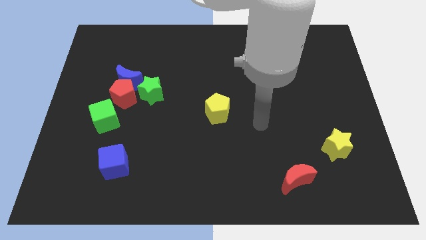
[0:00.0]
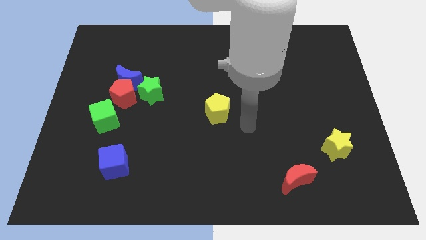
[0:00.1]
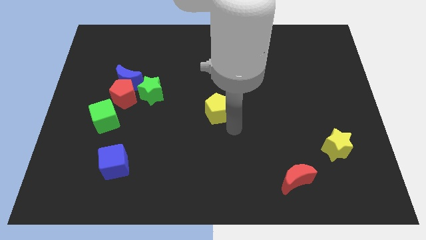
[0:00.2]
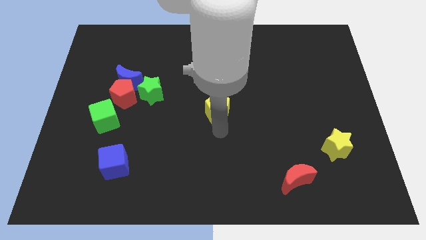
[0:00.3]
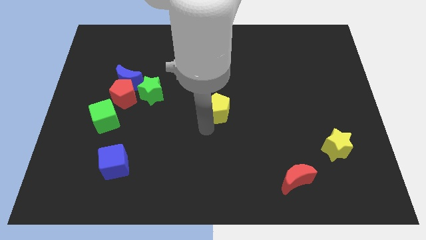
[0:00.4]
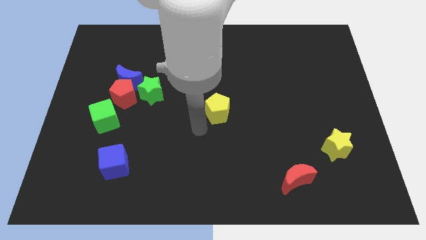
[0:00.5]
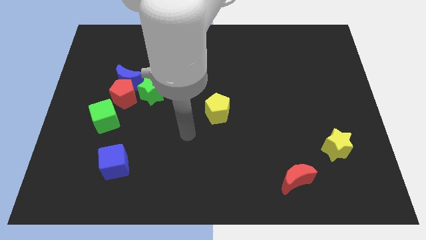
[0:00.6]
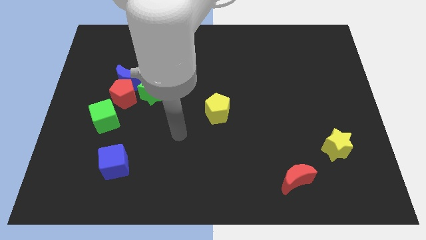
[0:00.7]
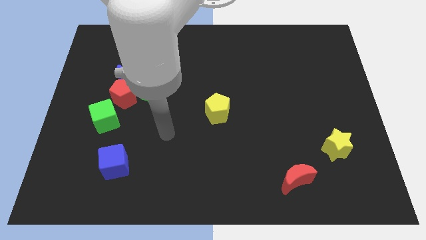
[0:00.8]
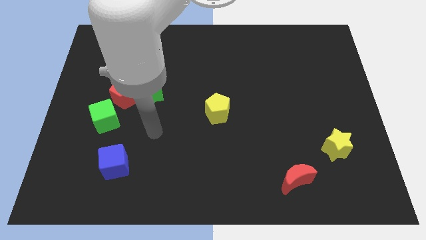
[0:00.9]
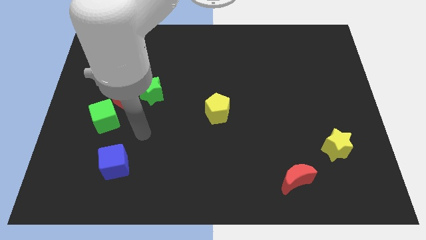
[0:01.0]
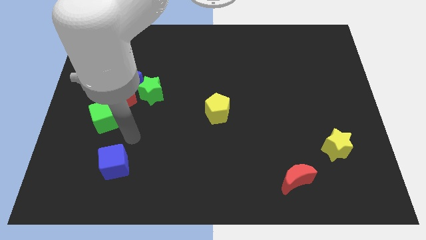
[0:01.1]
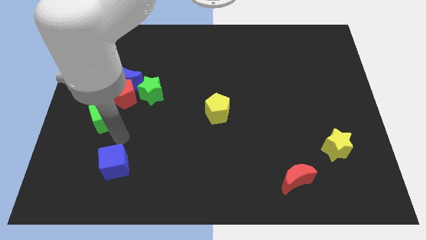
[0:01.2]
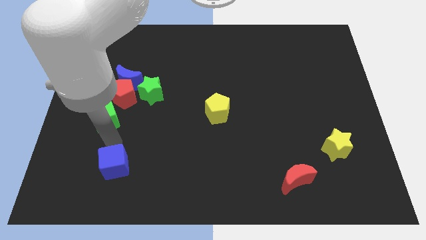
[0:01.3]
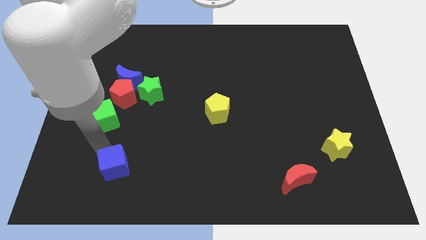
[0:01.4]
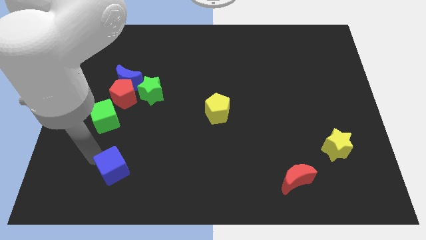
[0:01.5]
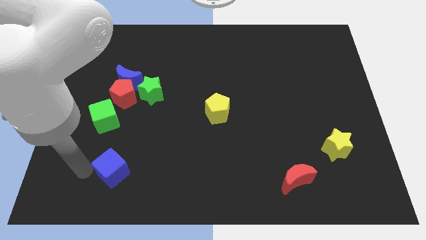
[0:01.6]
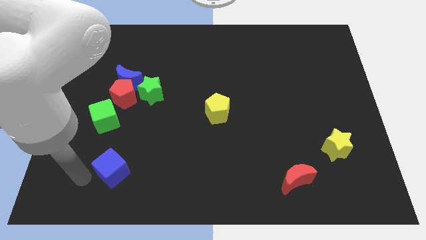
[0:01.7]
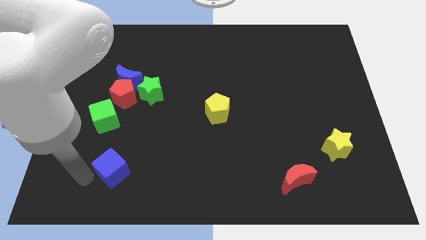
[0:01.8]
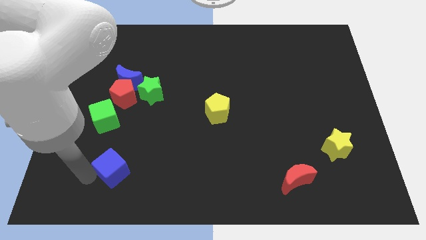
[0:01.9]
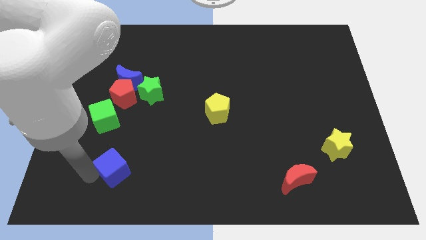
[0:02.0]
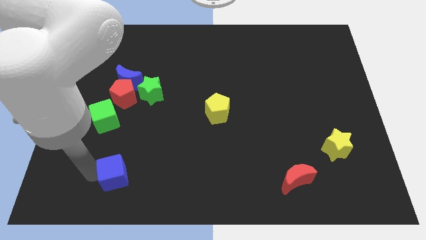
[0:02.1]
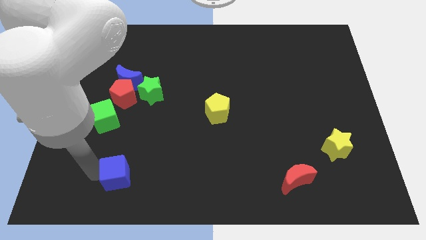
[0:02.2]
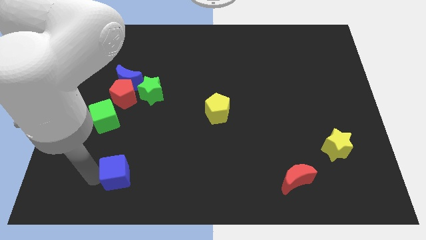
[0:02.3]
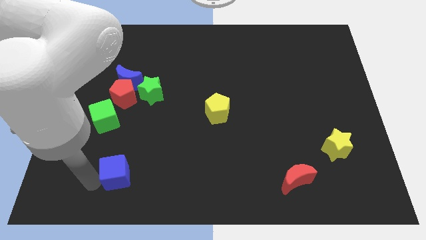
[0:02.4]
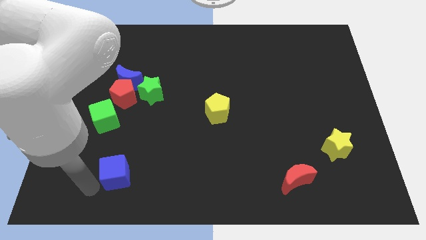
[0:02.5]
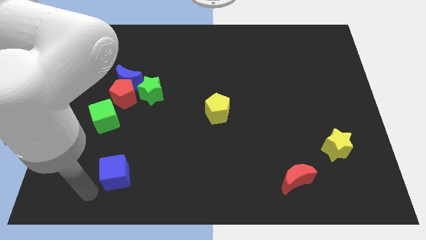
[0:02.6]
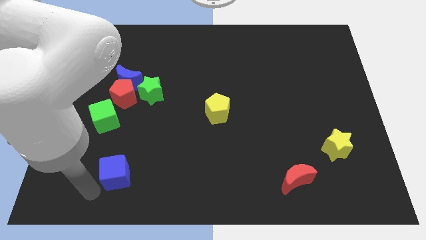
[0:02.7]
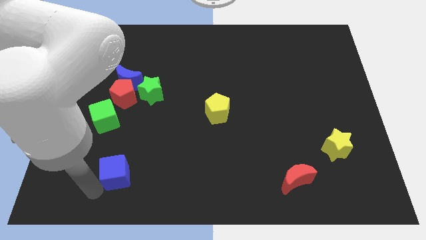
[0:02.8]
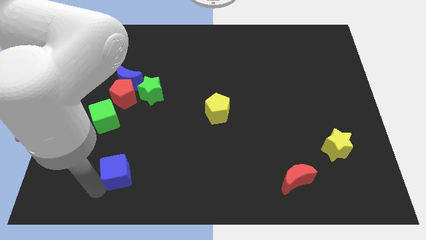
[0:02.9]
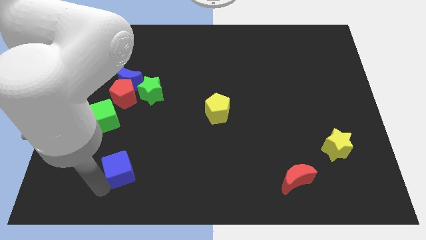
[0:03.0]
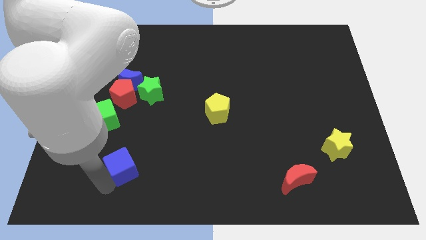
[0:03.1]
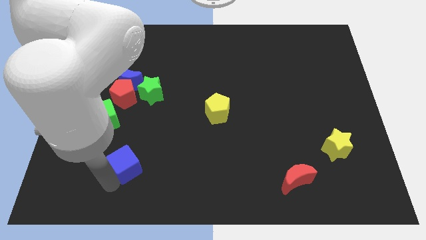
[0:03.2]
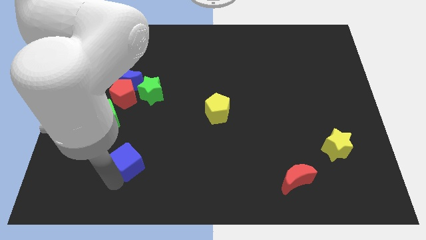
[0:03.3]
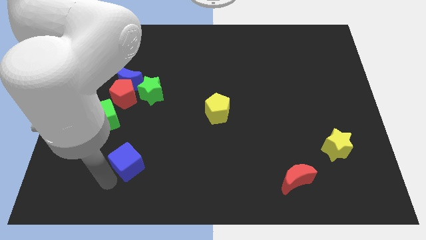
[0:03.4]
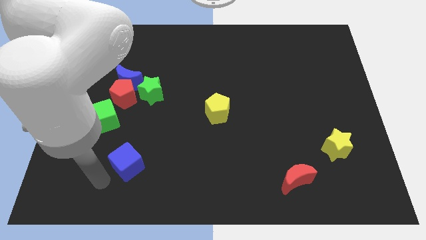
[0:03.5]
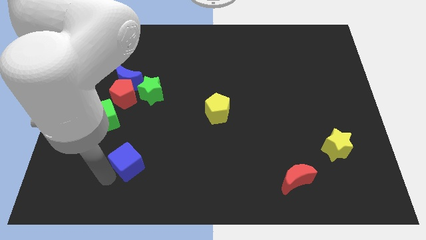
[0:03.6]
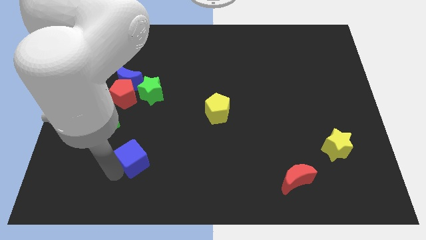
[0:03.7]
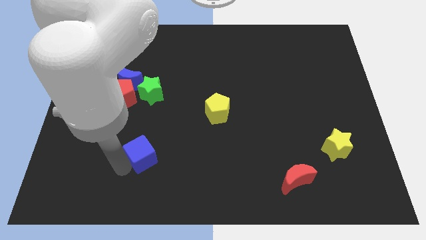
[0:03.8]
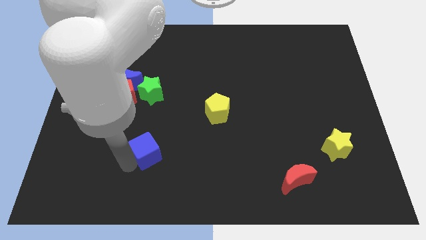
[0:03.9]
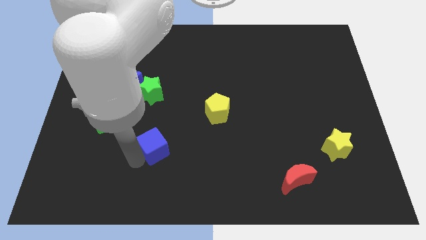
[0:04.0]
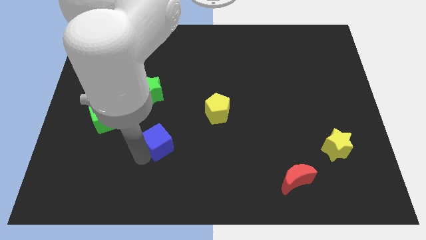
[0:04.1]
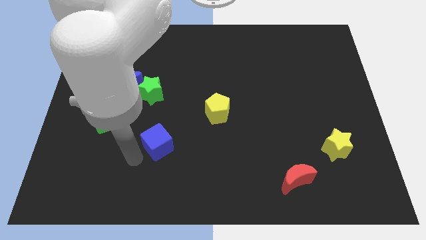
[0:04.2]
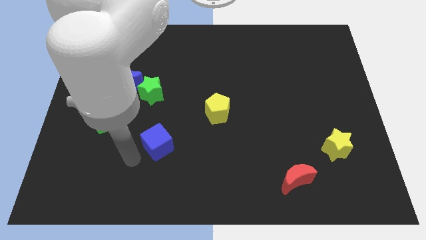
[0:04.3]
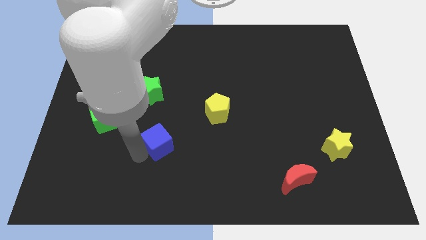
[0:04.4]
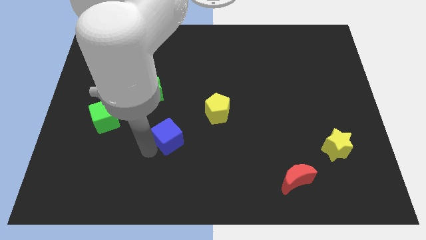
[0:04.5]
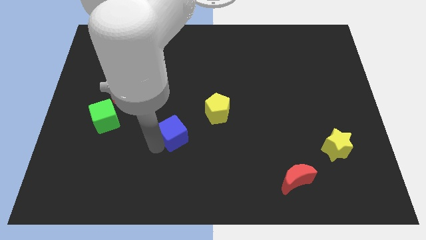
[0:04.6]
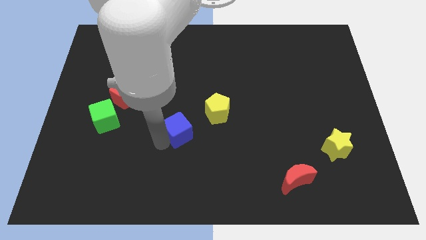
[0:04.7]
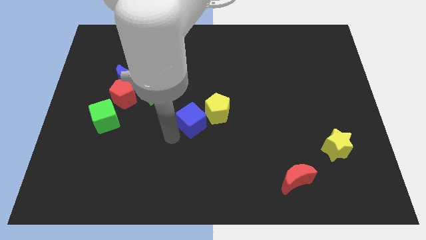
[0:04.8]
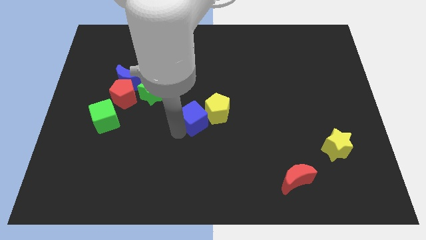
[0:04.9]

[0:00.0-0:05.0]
move the blue cube to the yellow pentagon

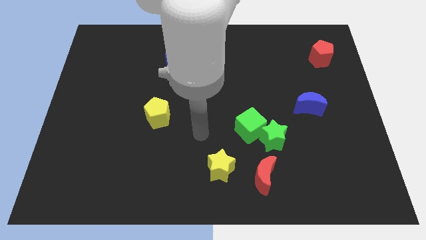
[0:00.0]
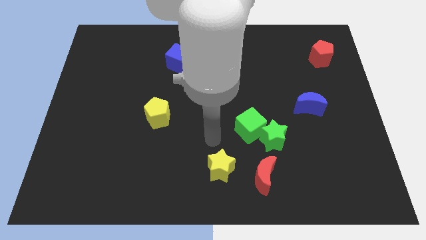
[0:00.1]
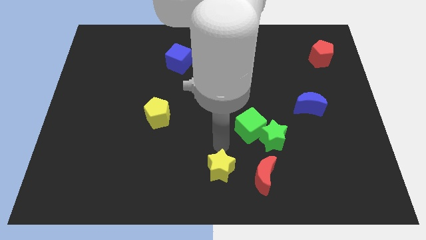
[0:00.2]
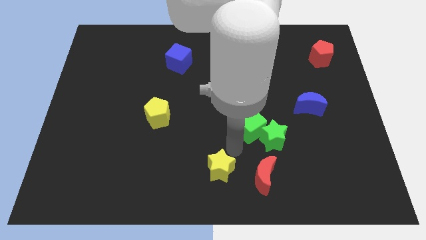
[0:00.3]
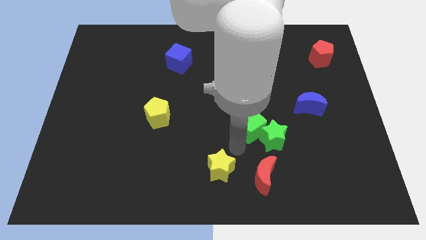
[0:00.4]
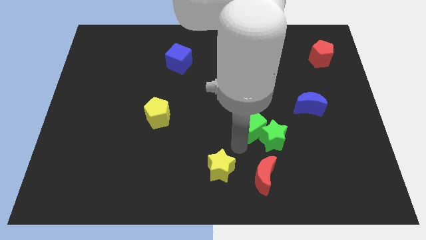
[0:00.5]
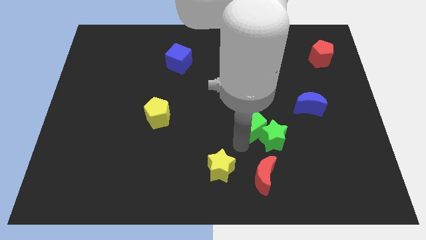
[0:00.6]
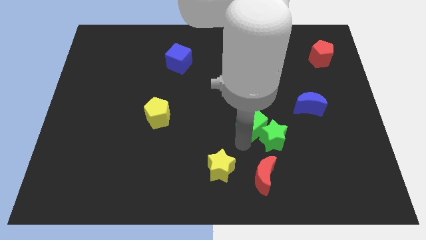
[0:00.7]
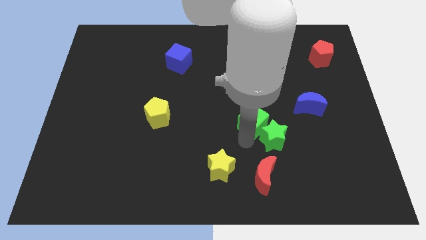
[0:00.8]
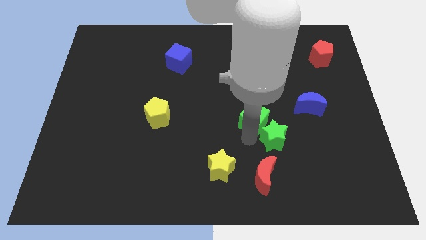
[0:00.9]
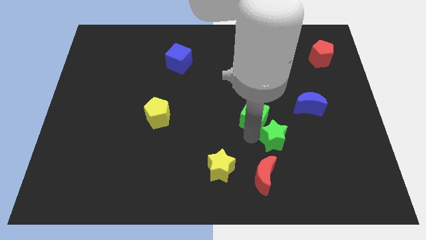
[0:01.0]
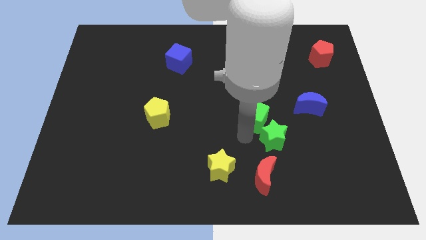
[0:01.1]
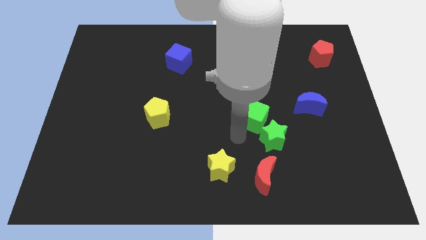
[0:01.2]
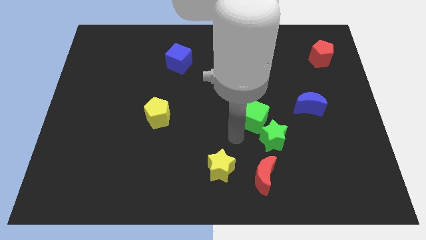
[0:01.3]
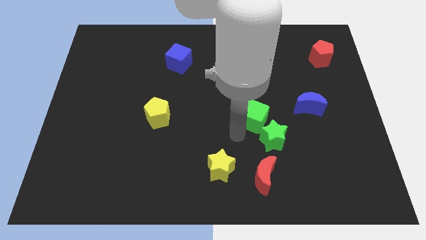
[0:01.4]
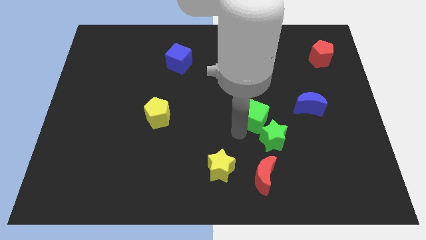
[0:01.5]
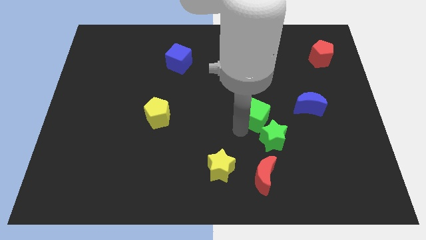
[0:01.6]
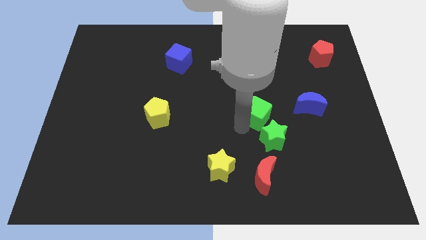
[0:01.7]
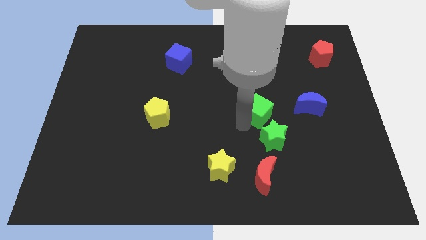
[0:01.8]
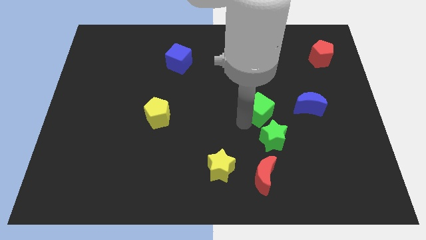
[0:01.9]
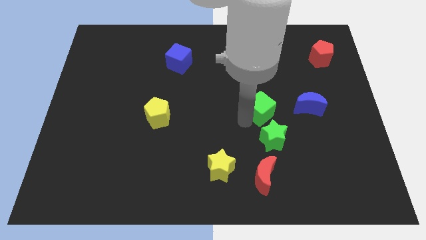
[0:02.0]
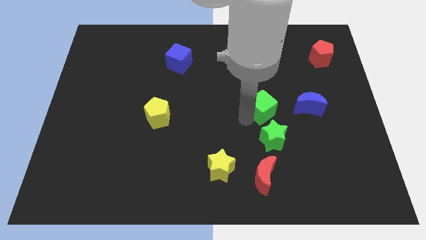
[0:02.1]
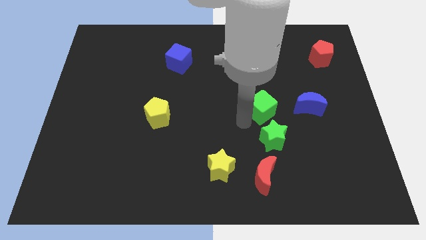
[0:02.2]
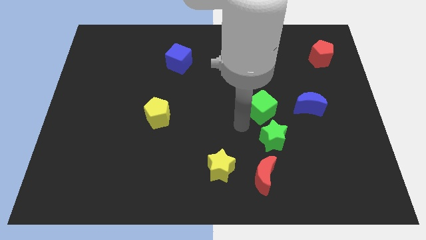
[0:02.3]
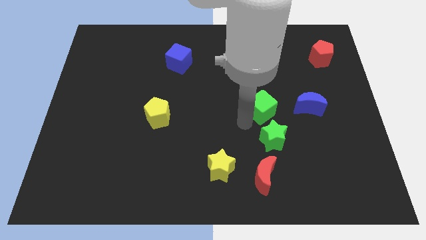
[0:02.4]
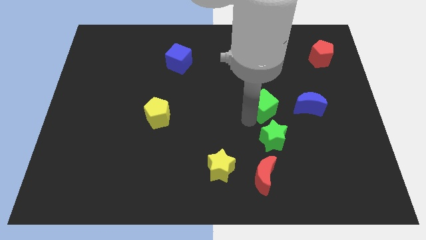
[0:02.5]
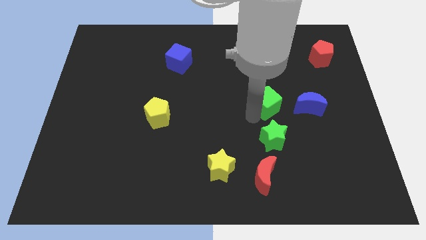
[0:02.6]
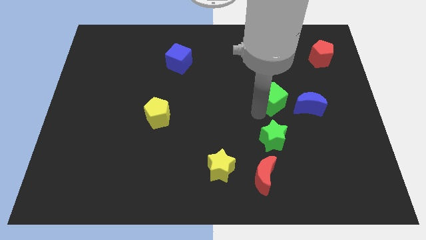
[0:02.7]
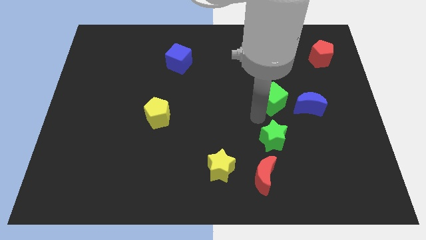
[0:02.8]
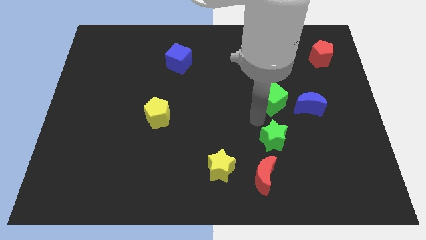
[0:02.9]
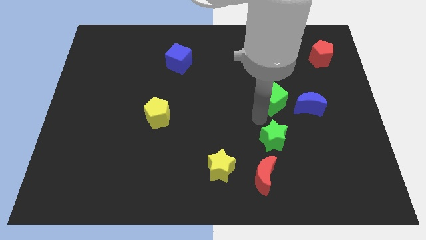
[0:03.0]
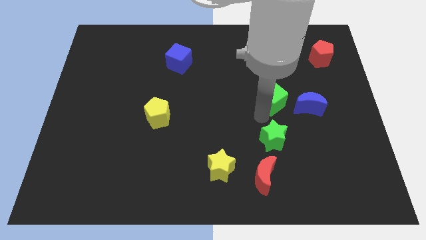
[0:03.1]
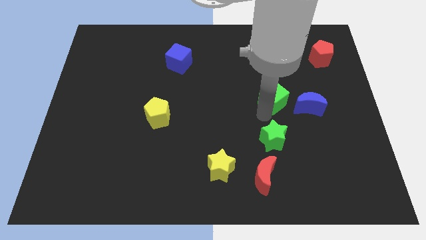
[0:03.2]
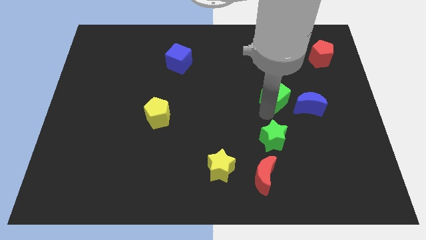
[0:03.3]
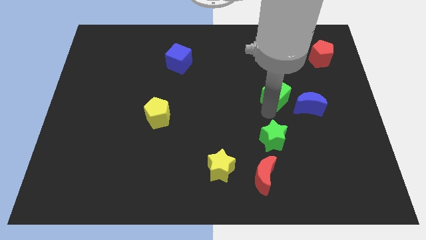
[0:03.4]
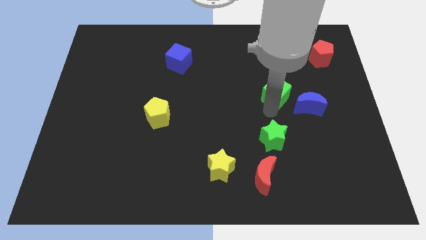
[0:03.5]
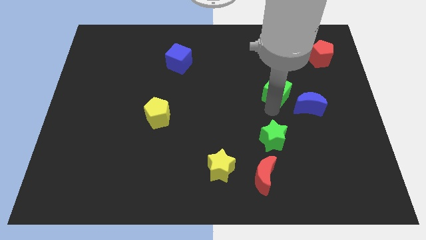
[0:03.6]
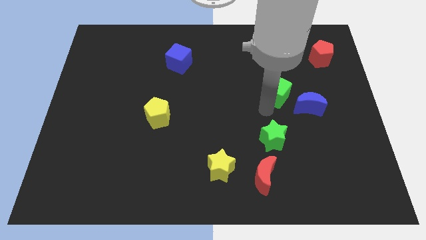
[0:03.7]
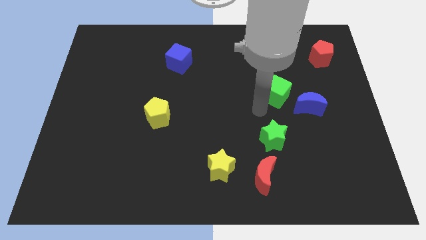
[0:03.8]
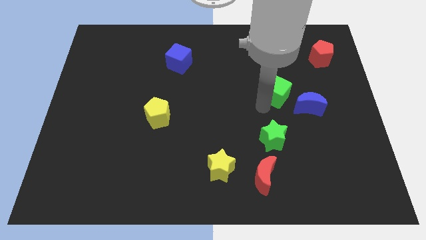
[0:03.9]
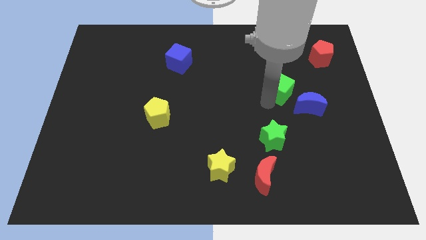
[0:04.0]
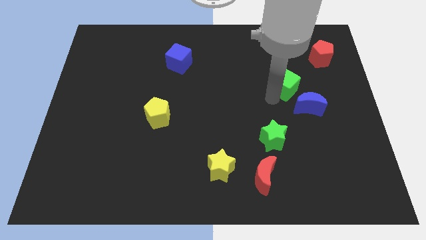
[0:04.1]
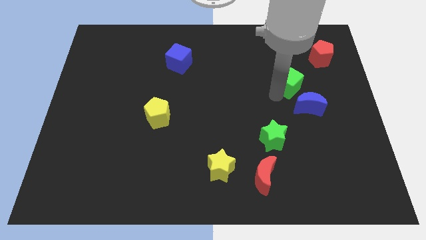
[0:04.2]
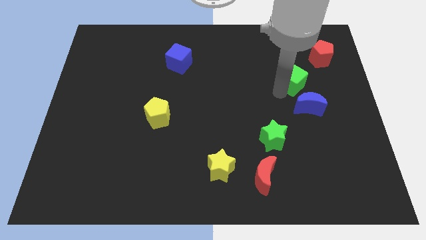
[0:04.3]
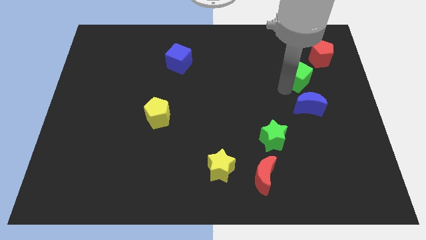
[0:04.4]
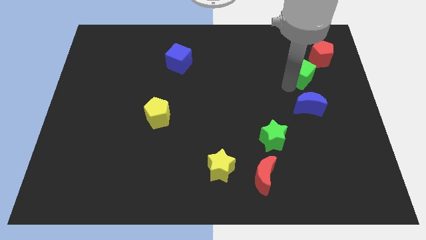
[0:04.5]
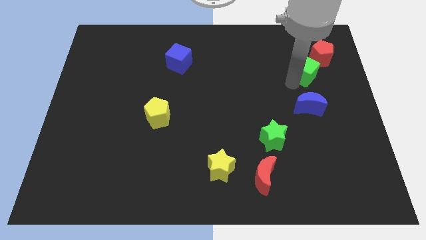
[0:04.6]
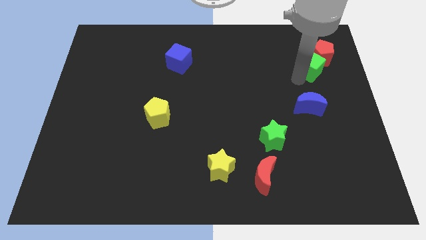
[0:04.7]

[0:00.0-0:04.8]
put the green cube to the red pentagon
